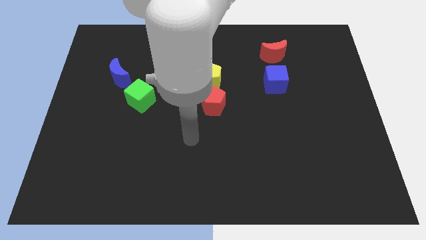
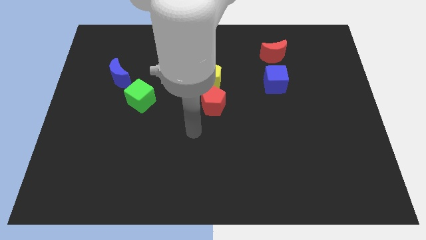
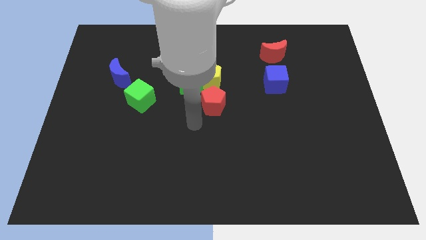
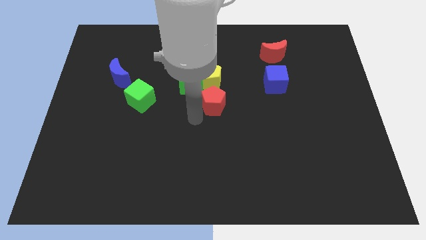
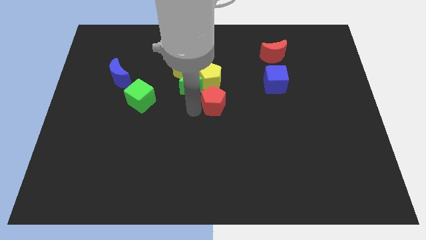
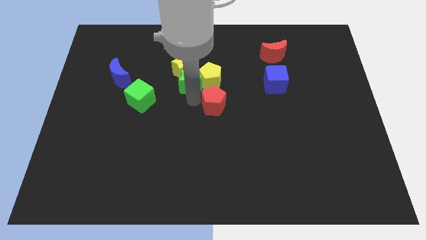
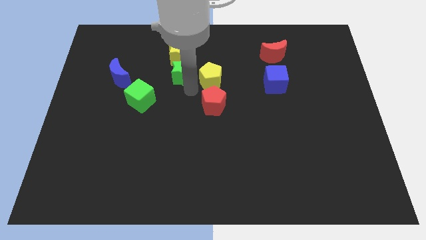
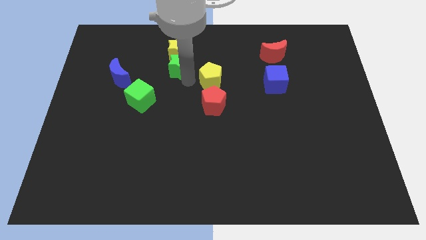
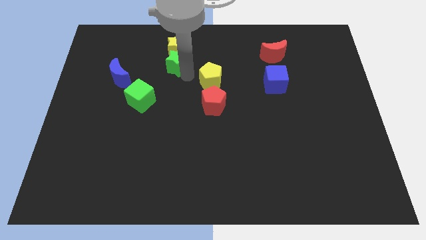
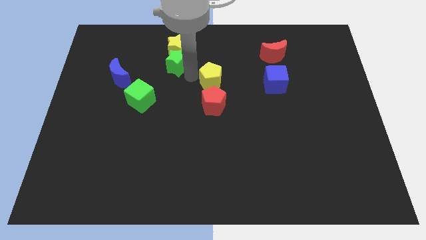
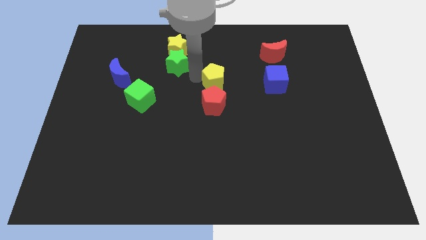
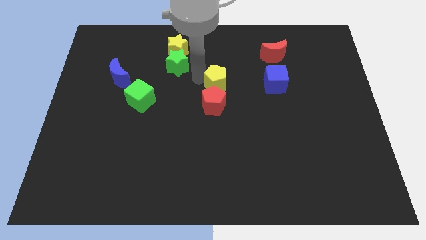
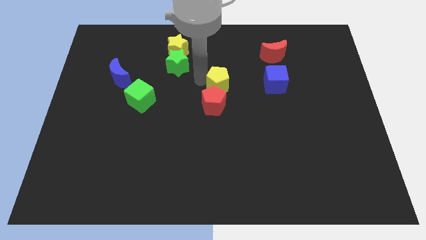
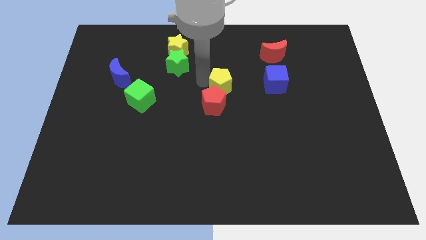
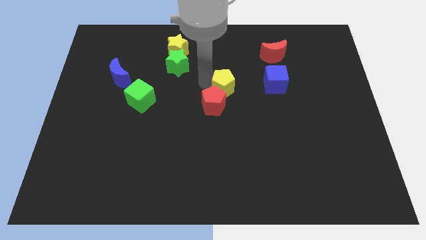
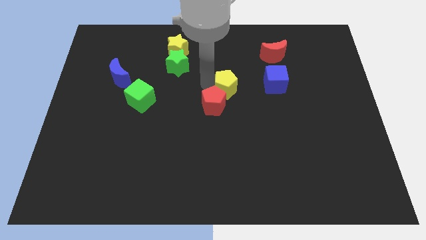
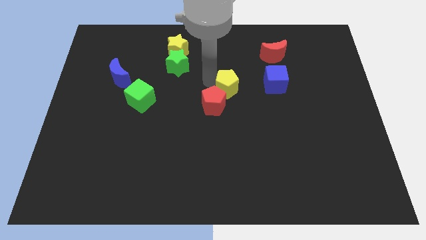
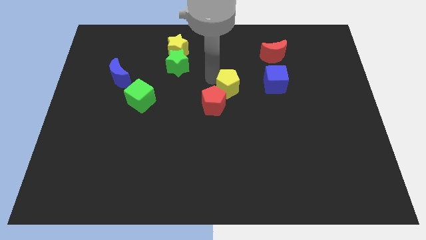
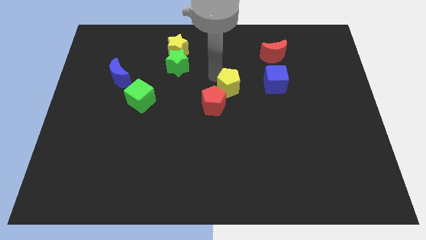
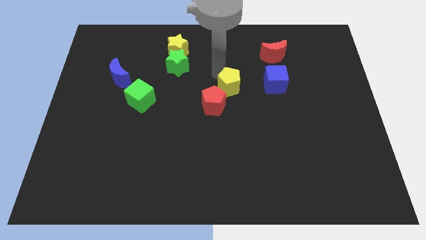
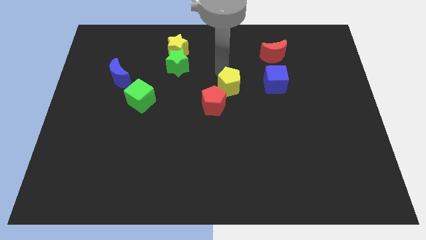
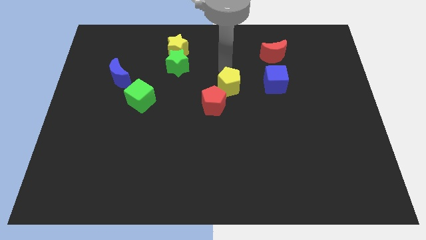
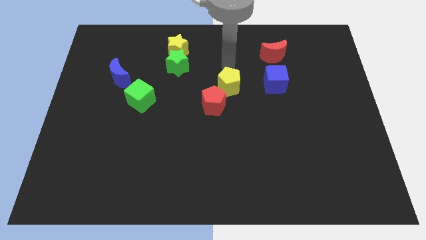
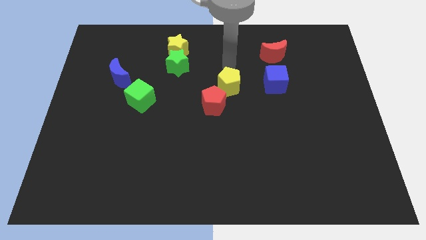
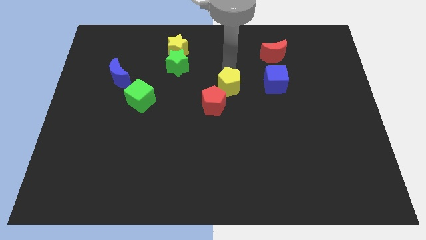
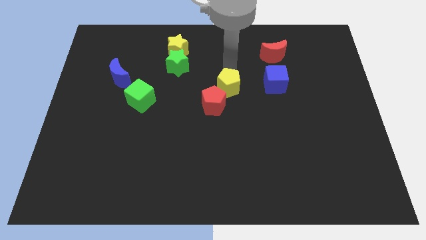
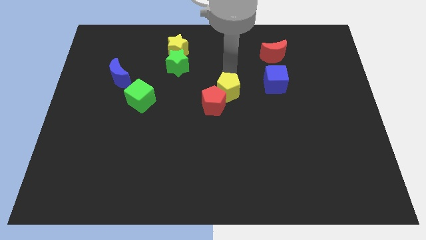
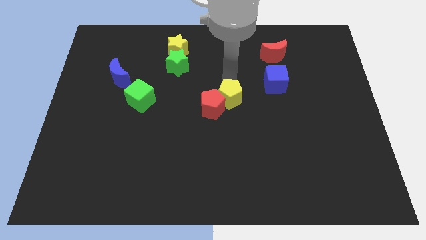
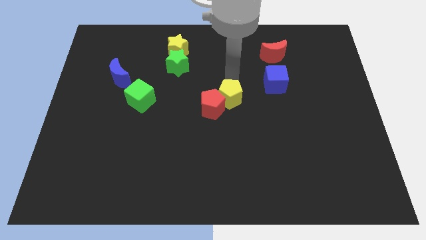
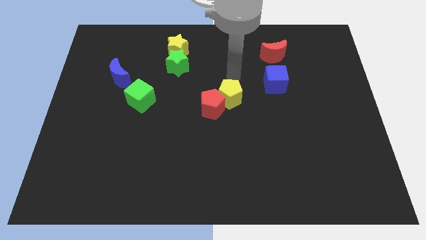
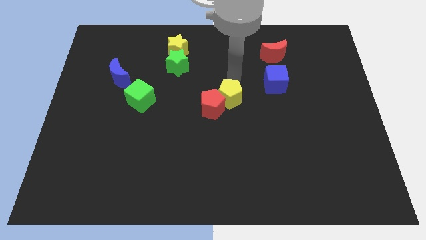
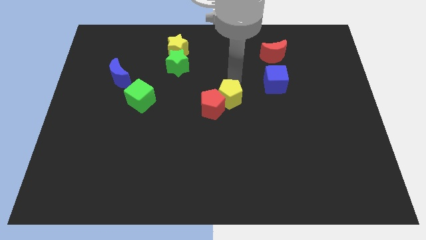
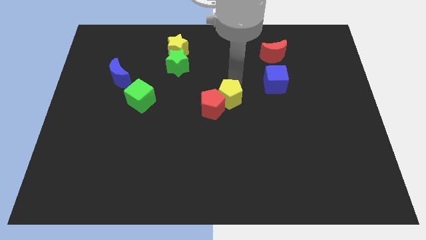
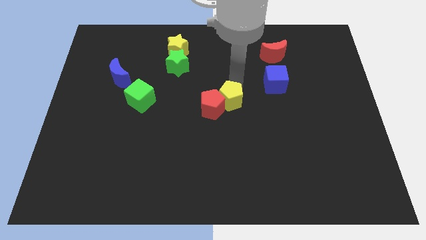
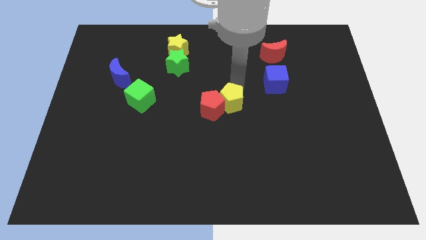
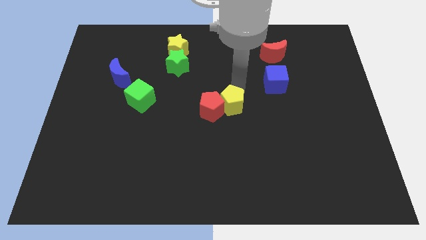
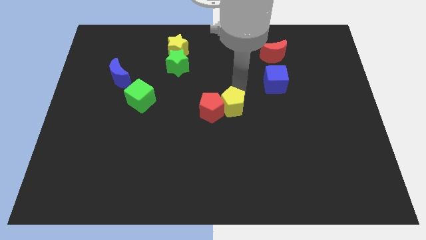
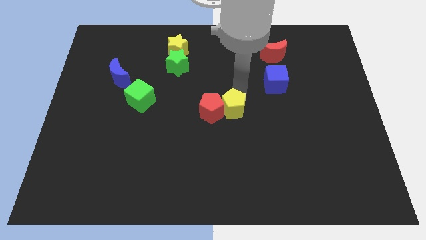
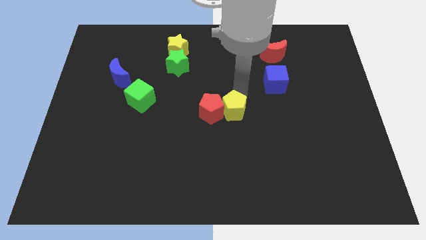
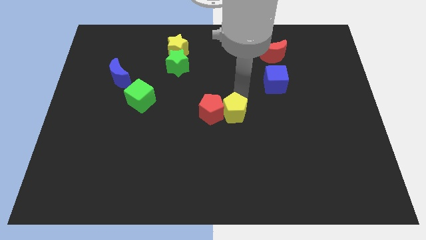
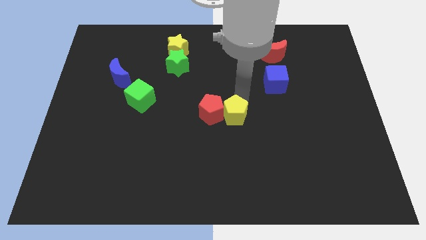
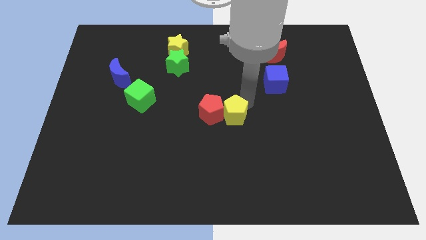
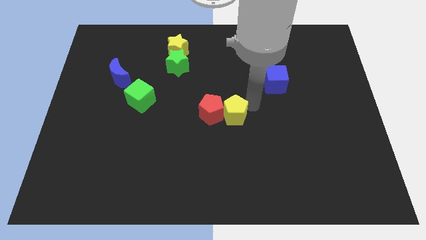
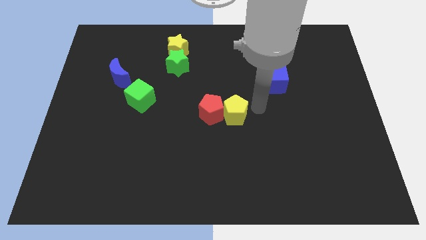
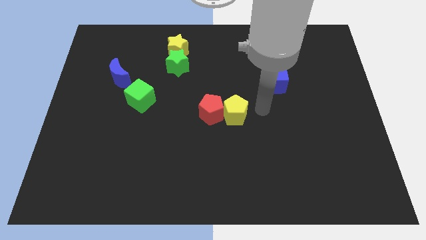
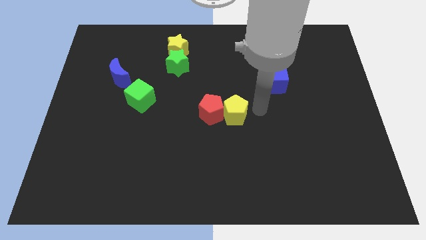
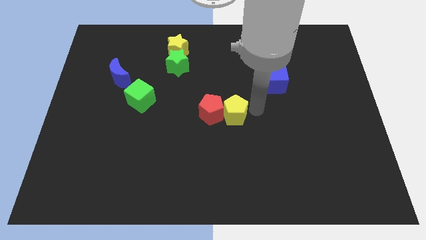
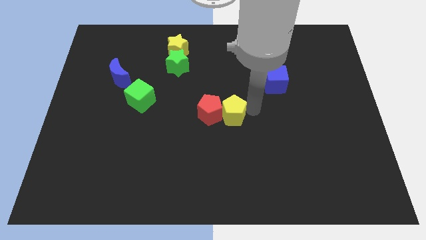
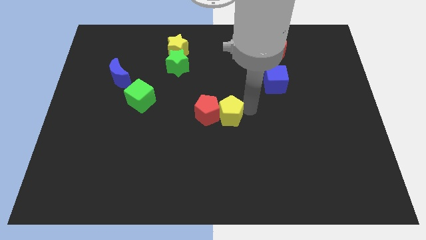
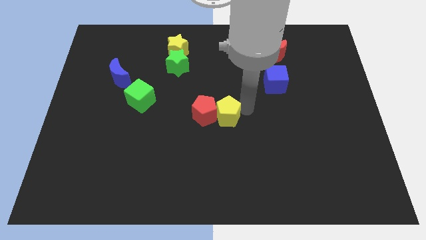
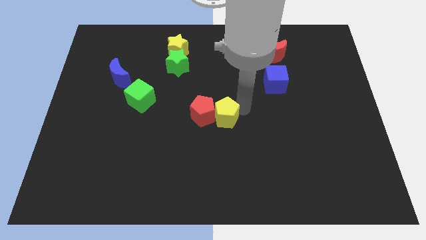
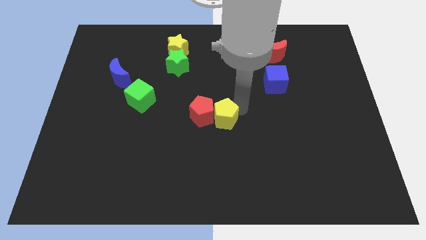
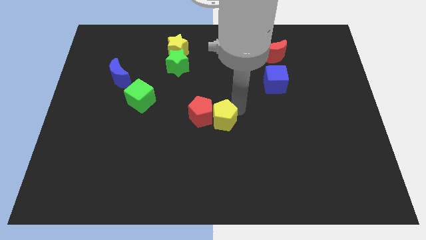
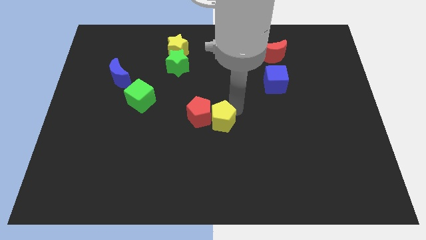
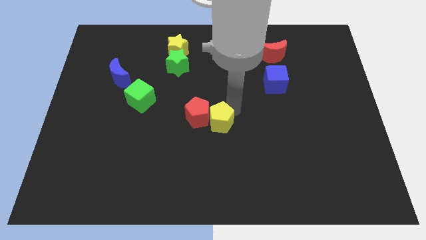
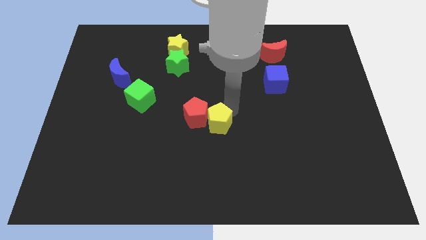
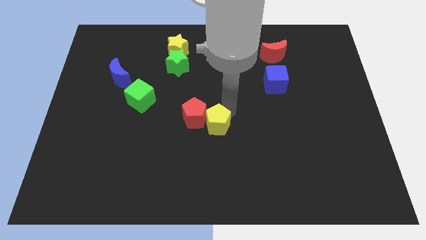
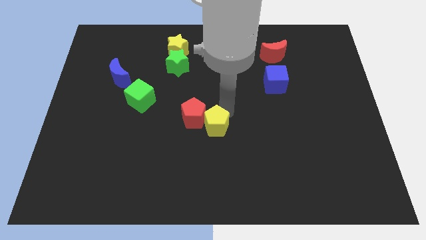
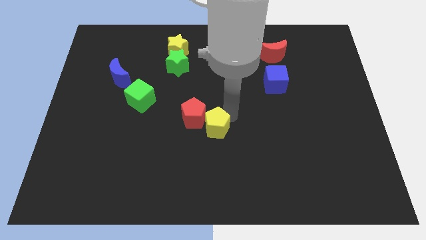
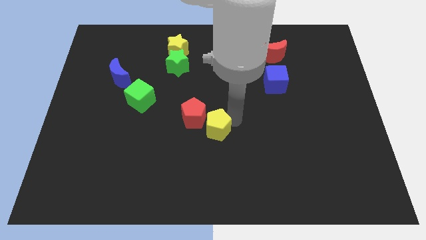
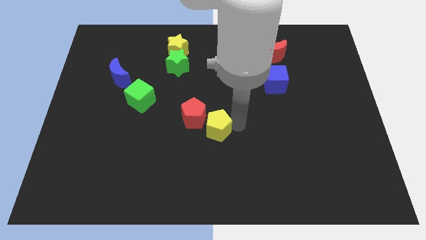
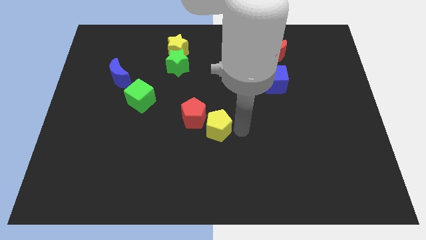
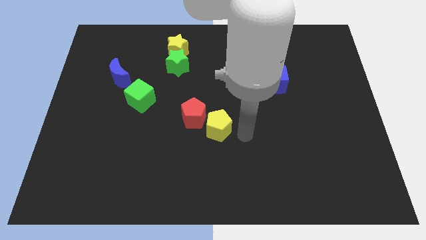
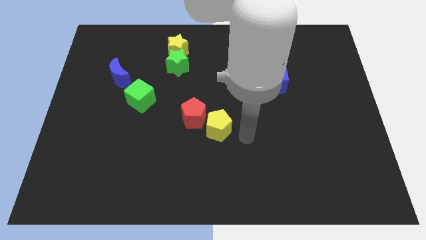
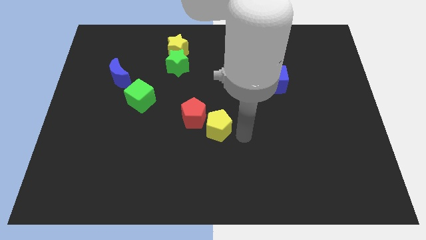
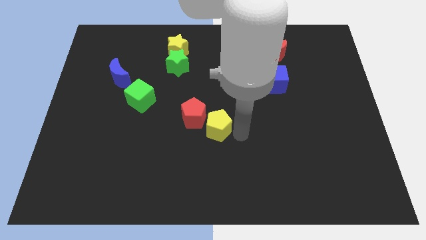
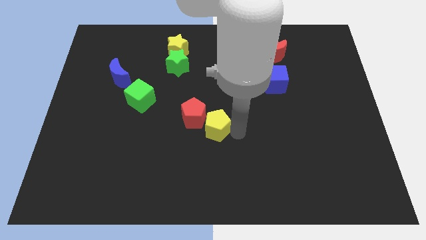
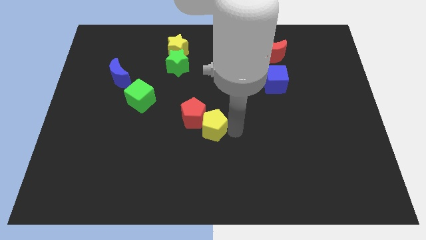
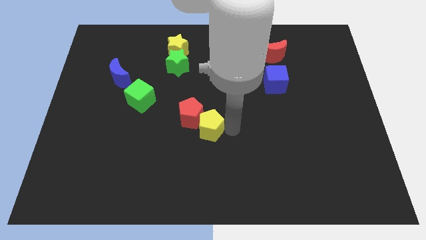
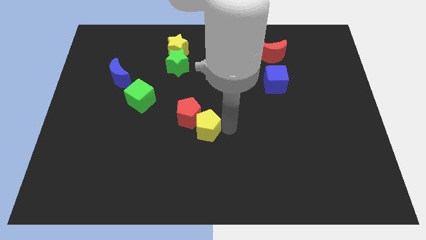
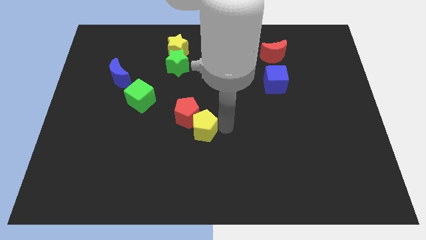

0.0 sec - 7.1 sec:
slide the yellow pentagon a bit downwards and left diagonally

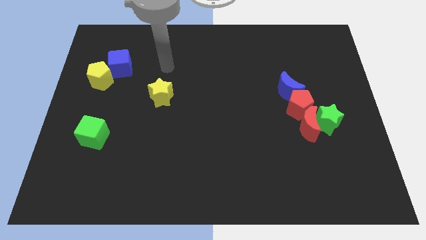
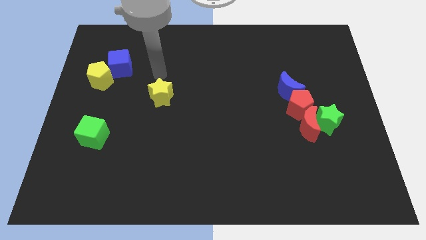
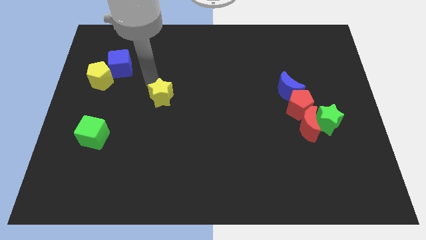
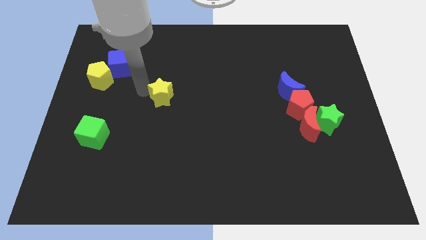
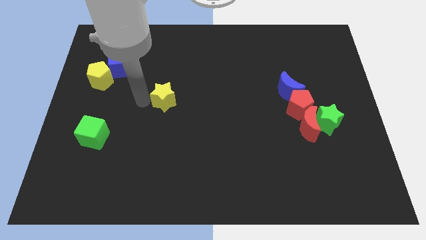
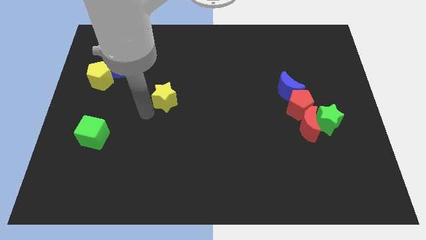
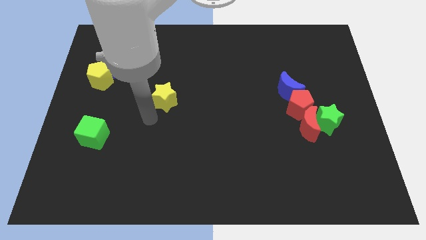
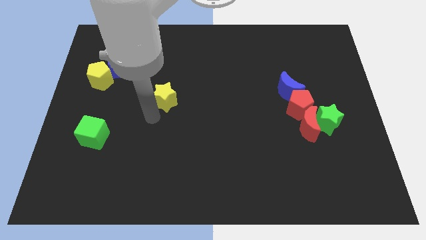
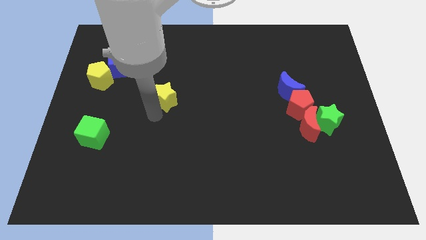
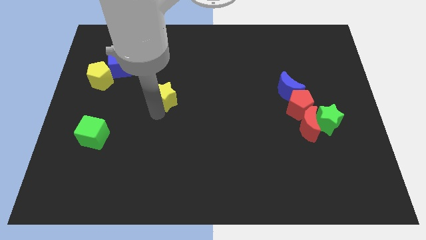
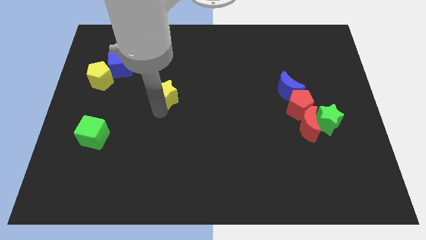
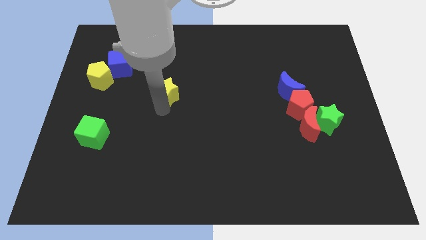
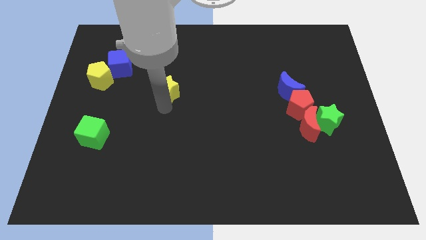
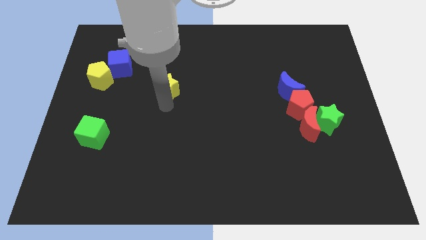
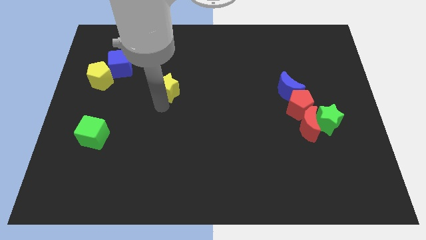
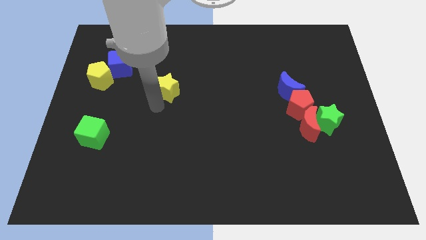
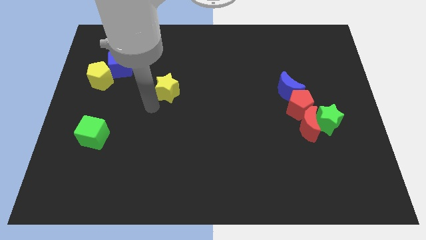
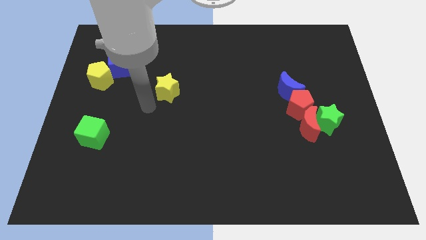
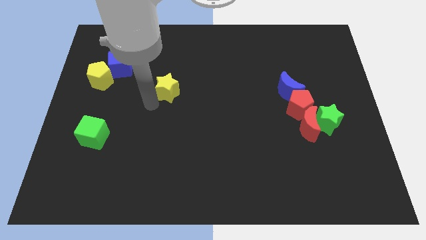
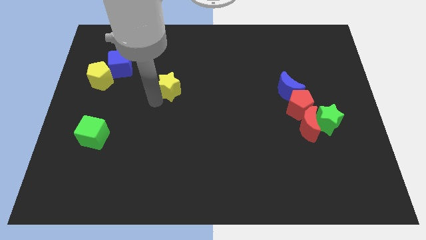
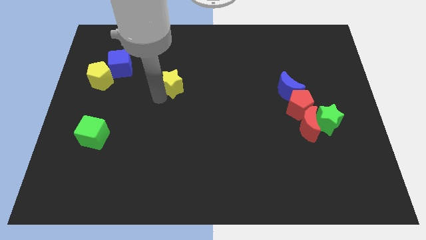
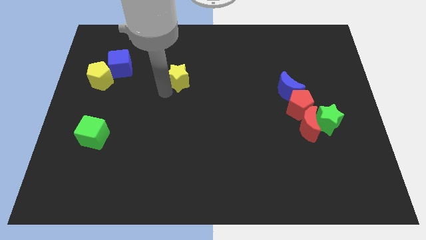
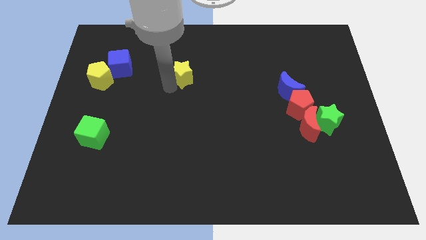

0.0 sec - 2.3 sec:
move the yellow star upwards and then right a little bit
